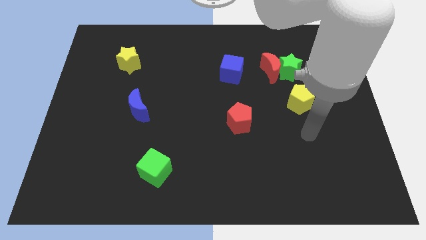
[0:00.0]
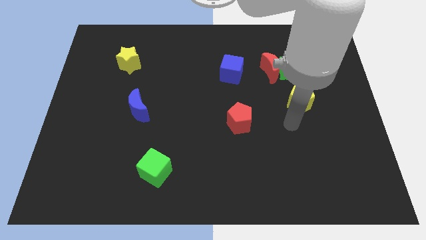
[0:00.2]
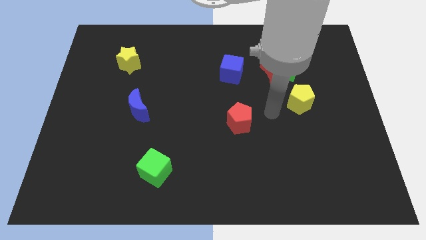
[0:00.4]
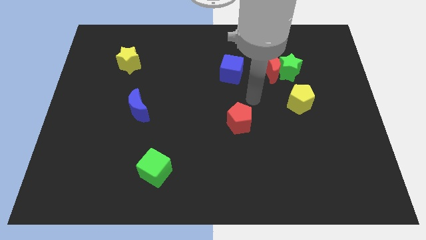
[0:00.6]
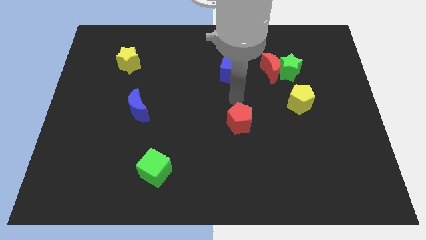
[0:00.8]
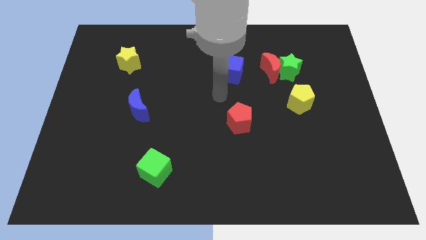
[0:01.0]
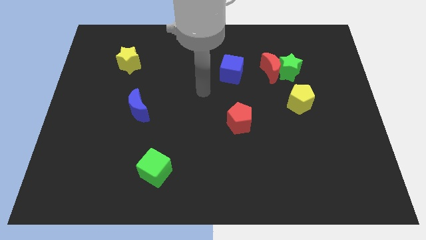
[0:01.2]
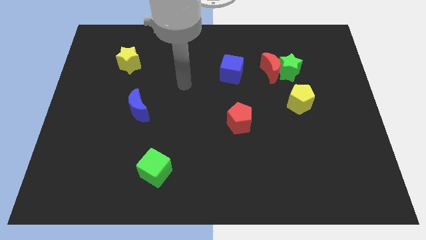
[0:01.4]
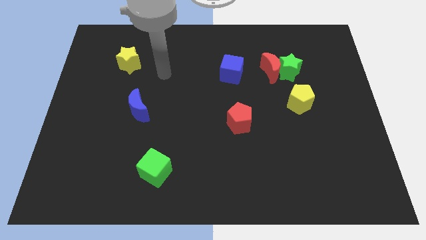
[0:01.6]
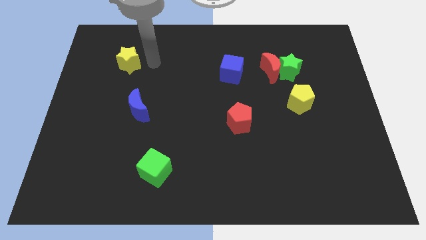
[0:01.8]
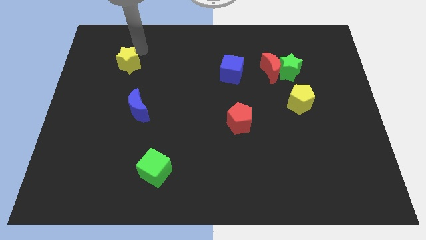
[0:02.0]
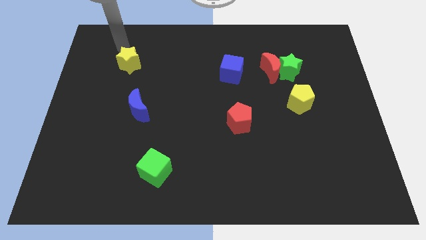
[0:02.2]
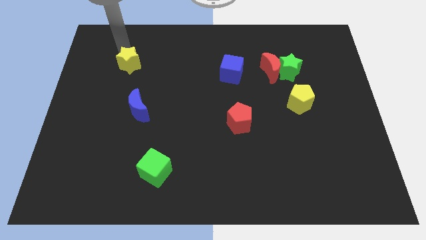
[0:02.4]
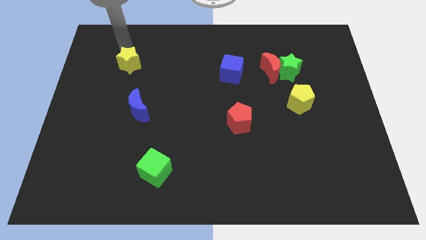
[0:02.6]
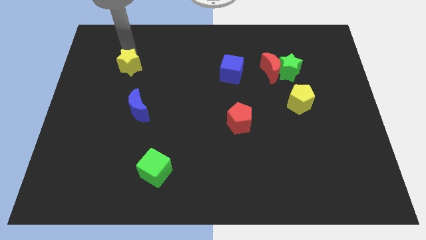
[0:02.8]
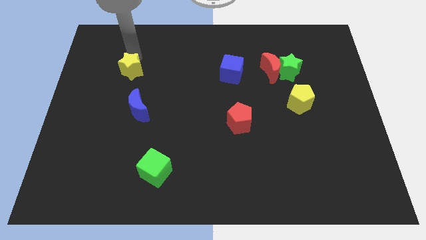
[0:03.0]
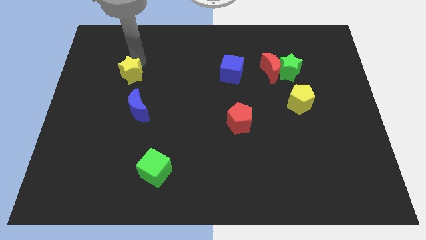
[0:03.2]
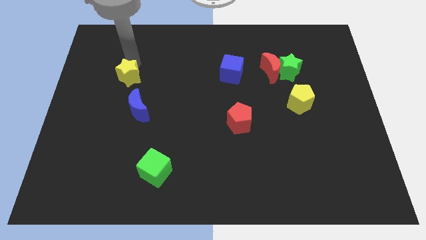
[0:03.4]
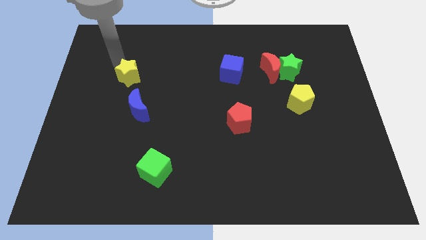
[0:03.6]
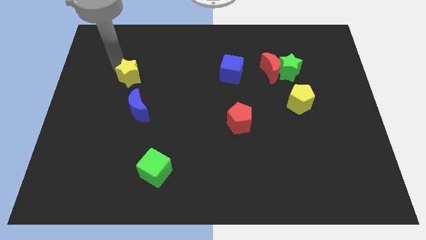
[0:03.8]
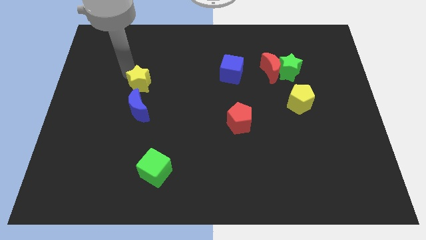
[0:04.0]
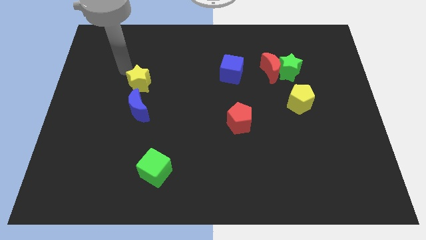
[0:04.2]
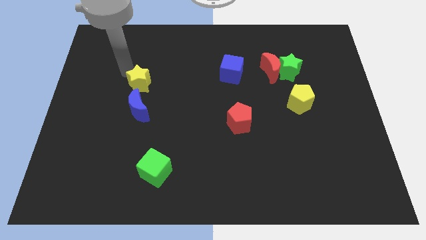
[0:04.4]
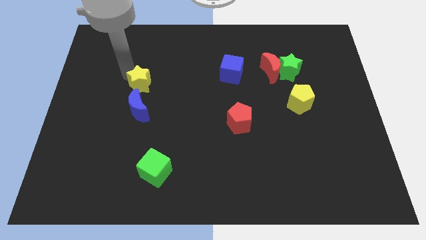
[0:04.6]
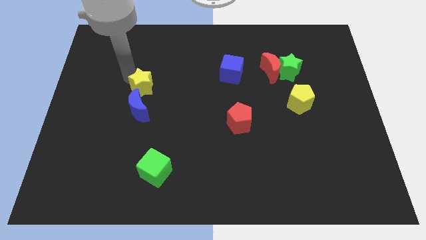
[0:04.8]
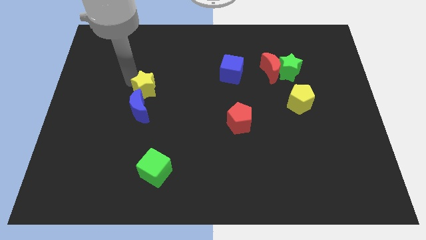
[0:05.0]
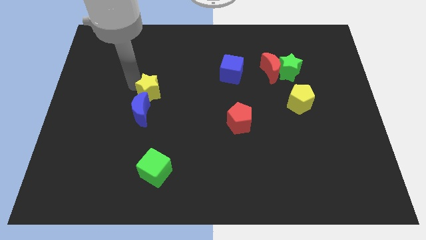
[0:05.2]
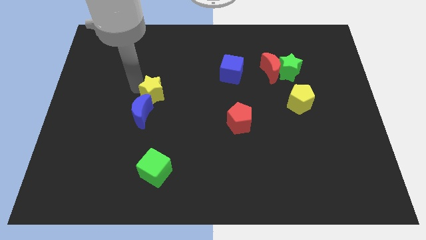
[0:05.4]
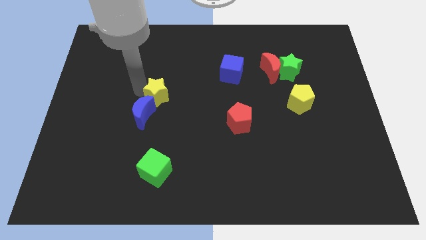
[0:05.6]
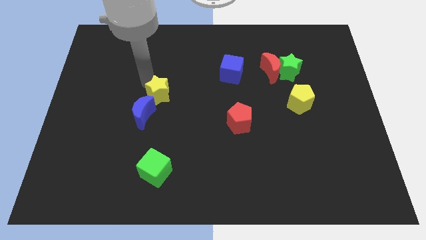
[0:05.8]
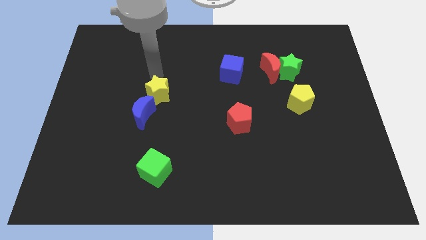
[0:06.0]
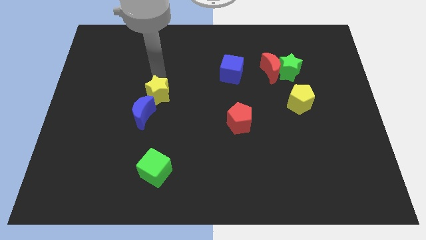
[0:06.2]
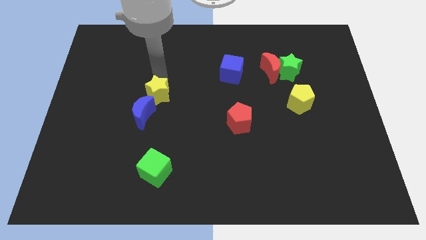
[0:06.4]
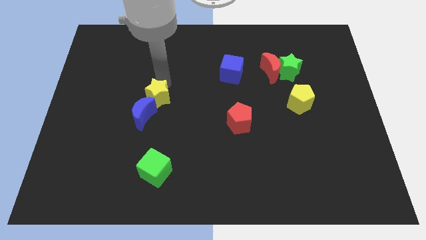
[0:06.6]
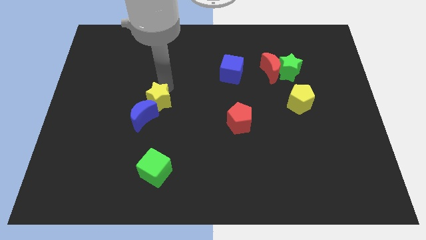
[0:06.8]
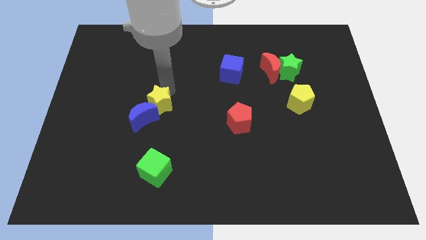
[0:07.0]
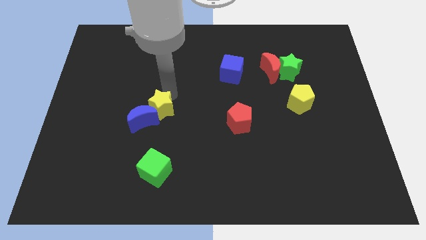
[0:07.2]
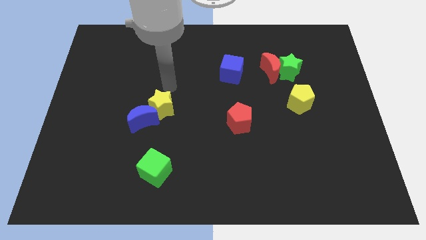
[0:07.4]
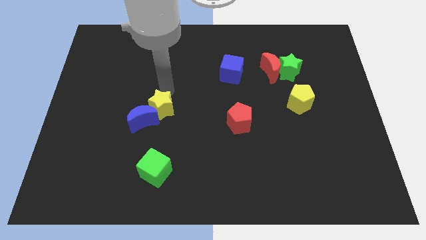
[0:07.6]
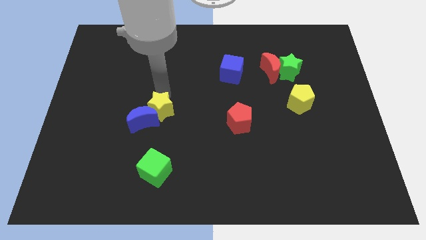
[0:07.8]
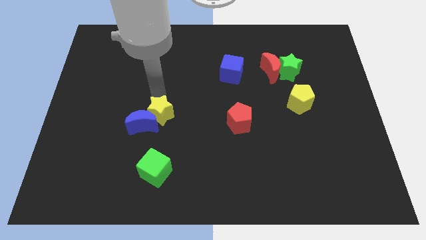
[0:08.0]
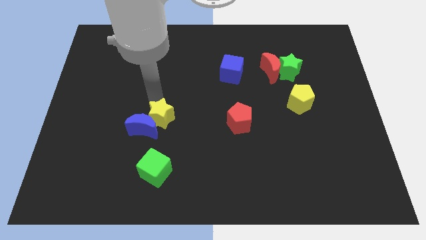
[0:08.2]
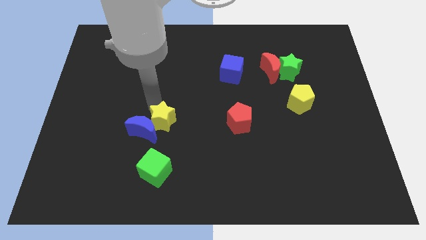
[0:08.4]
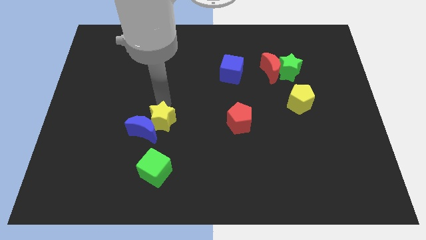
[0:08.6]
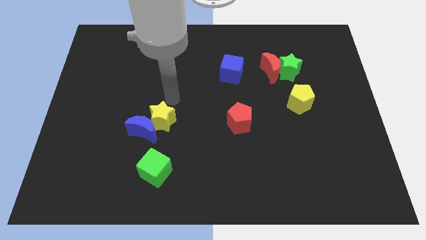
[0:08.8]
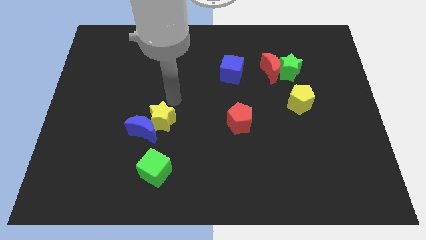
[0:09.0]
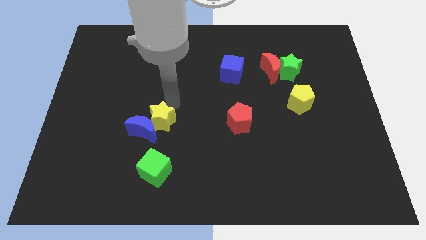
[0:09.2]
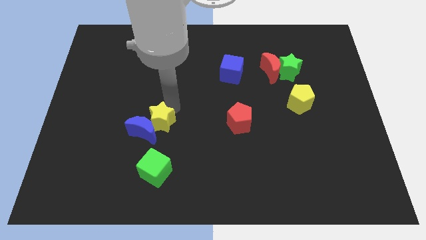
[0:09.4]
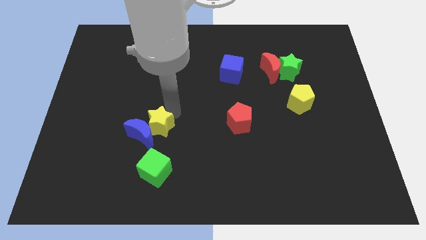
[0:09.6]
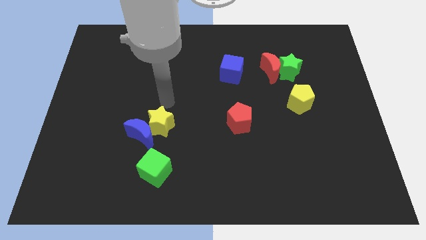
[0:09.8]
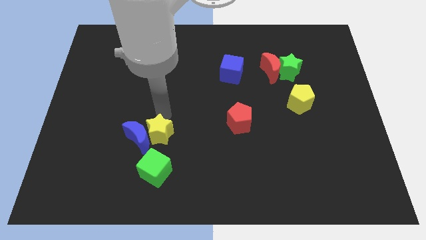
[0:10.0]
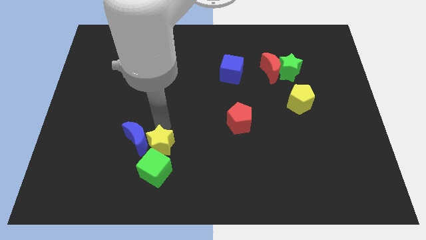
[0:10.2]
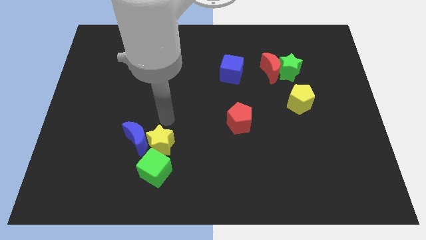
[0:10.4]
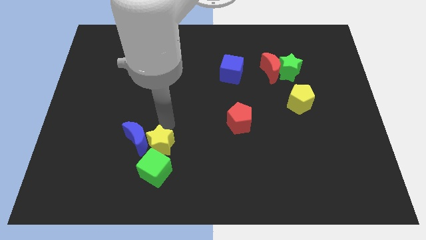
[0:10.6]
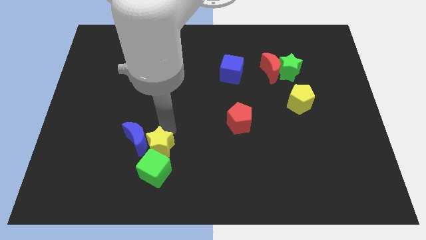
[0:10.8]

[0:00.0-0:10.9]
push the yellow star to the green cube

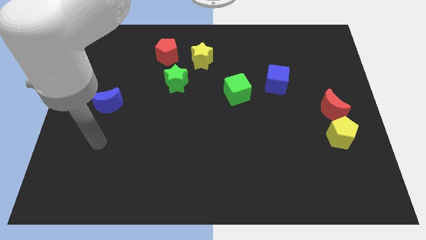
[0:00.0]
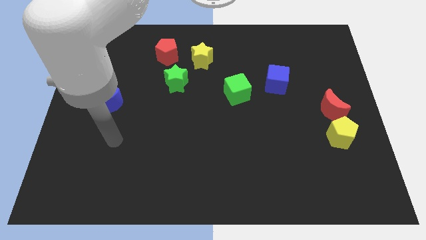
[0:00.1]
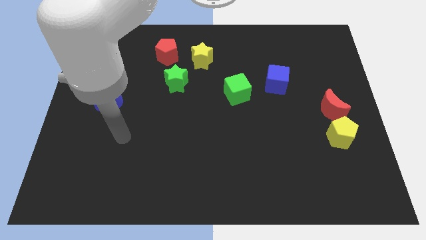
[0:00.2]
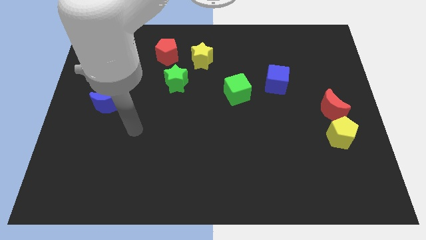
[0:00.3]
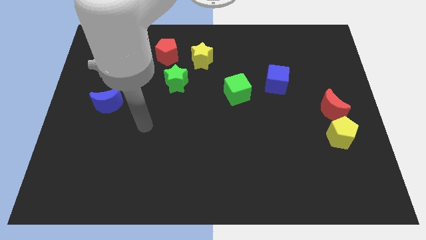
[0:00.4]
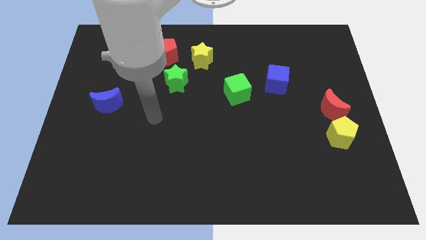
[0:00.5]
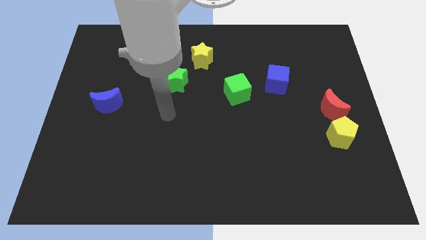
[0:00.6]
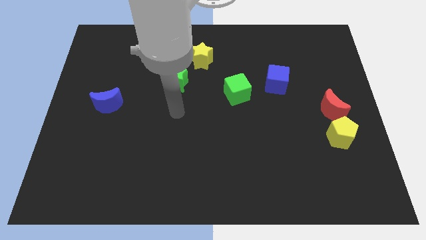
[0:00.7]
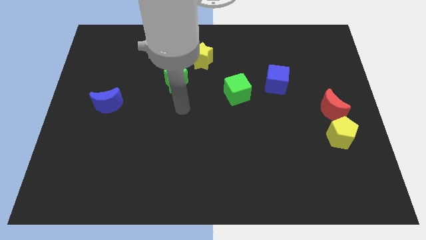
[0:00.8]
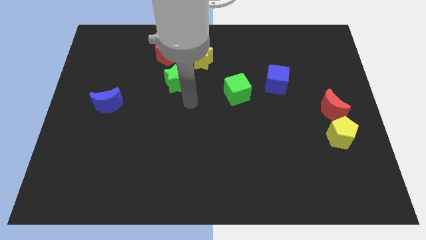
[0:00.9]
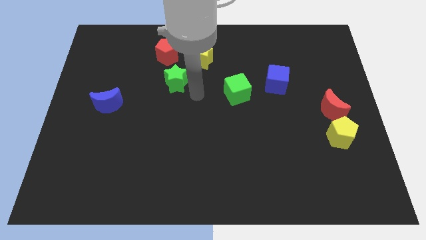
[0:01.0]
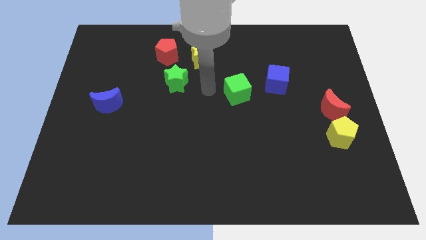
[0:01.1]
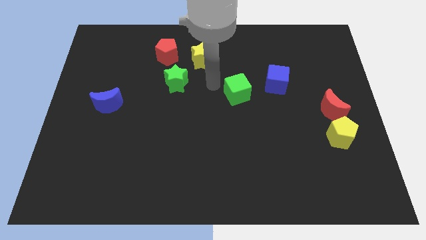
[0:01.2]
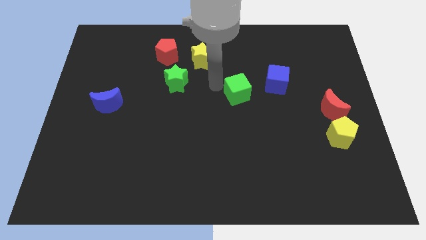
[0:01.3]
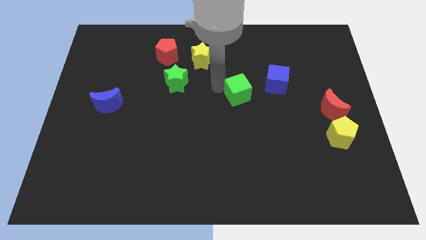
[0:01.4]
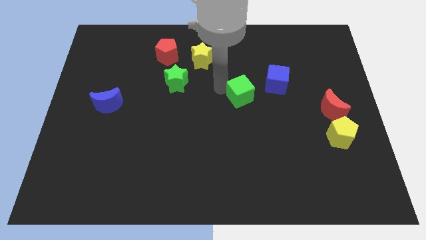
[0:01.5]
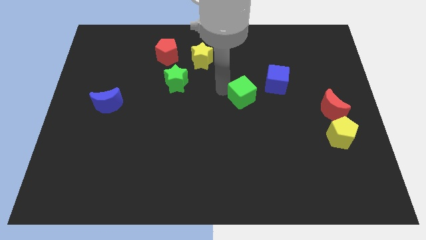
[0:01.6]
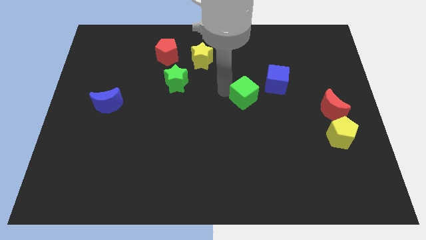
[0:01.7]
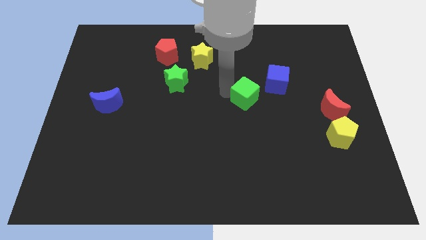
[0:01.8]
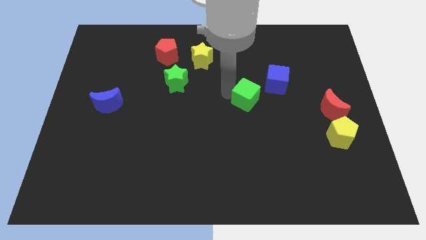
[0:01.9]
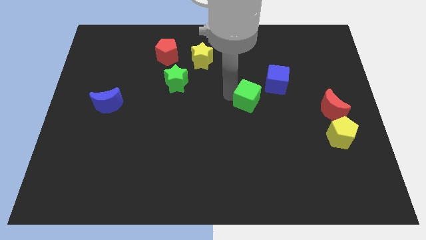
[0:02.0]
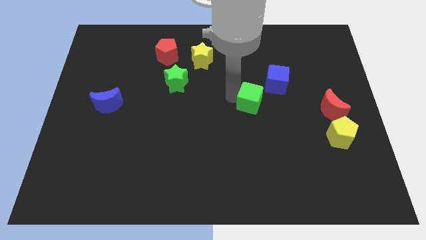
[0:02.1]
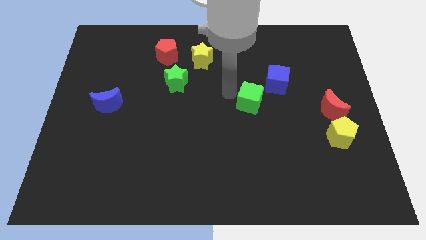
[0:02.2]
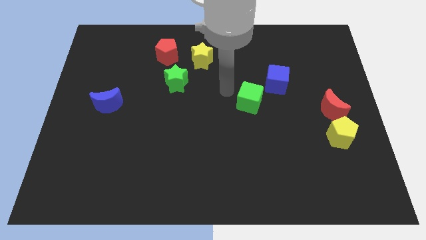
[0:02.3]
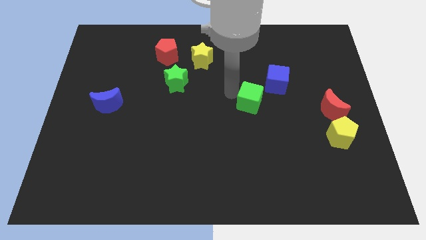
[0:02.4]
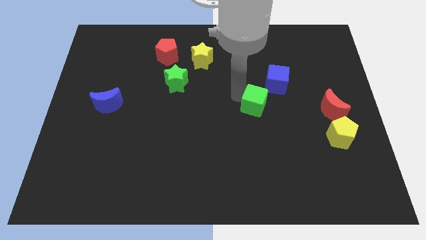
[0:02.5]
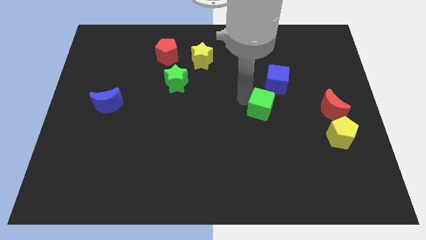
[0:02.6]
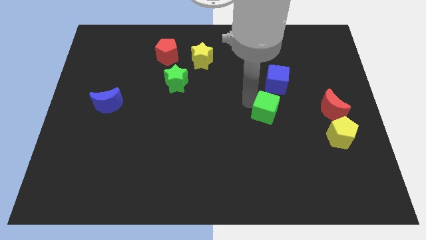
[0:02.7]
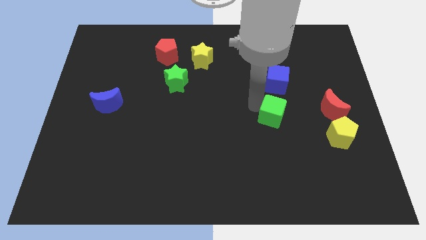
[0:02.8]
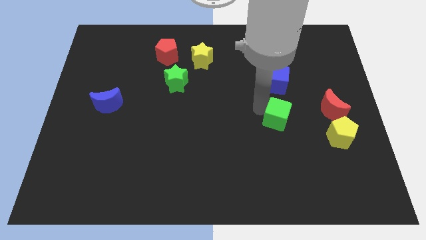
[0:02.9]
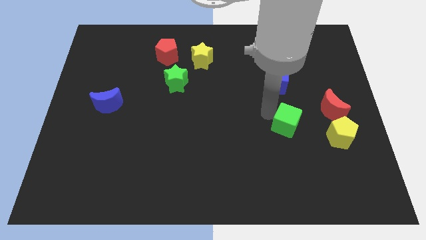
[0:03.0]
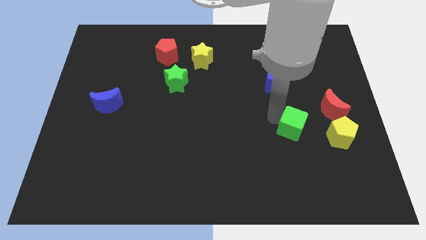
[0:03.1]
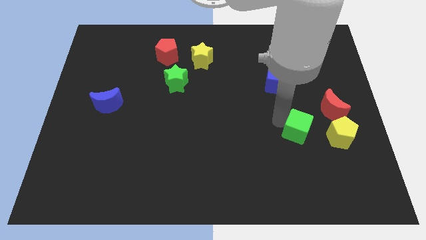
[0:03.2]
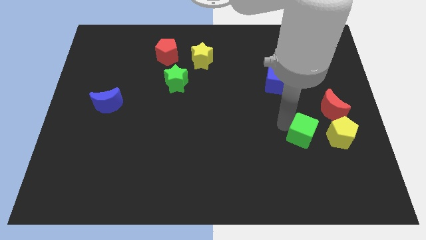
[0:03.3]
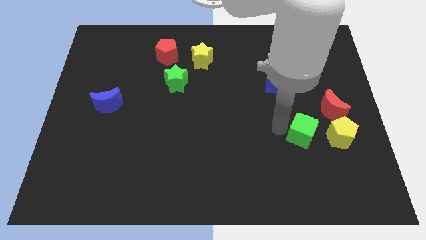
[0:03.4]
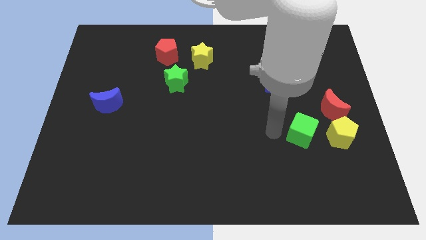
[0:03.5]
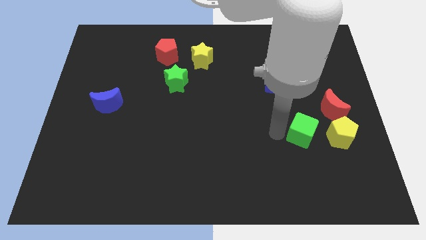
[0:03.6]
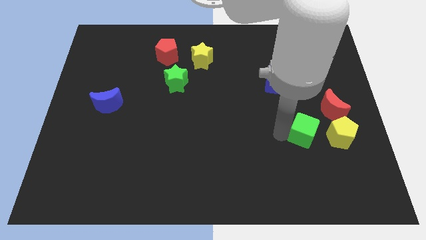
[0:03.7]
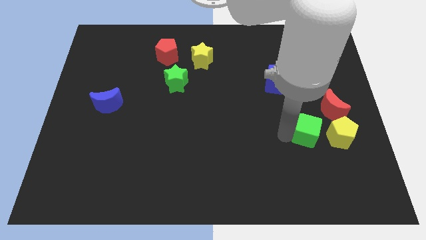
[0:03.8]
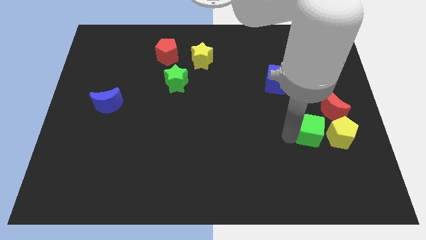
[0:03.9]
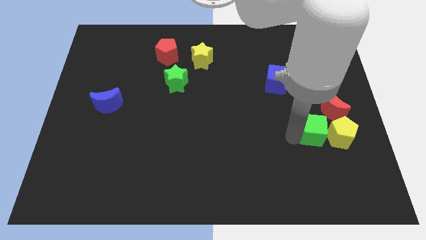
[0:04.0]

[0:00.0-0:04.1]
put the green cube next to the yellow pentagon
